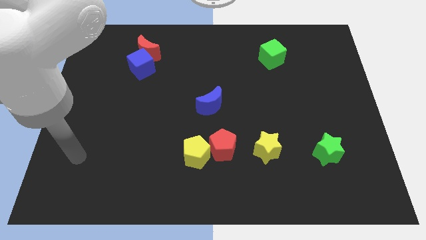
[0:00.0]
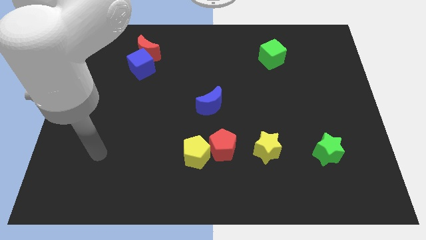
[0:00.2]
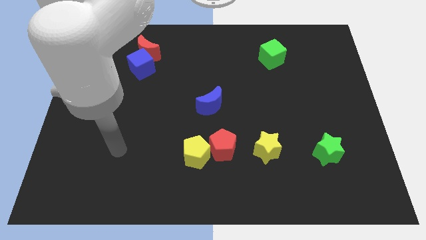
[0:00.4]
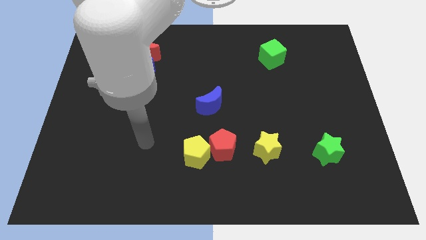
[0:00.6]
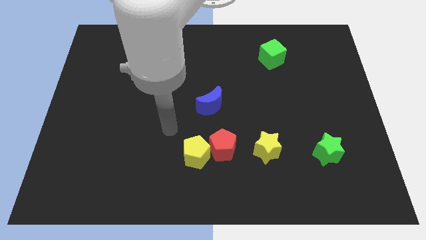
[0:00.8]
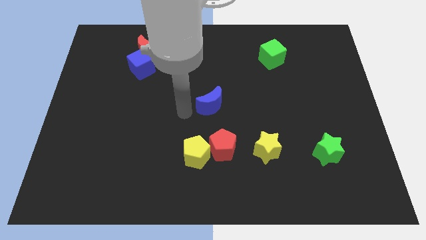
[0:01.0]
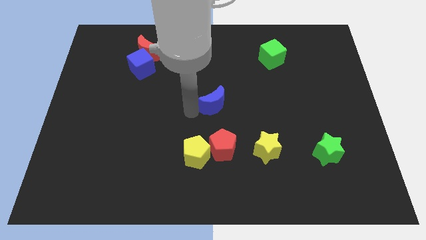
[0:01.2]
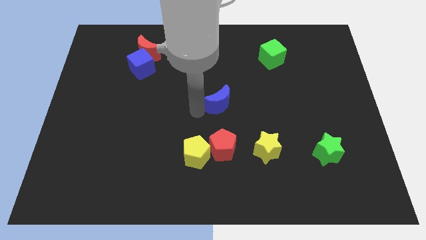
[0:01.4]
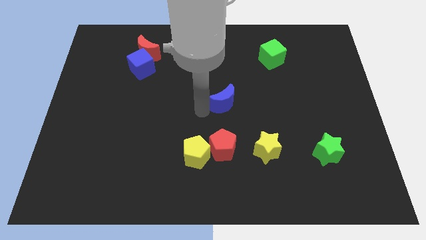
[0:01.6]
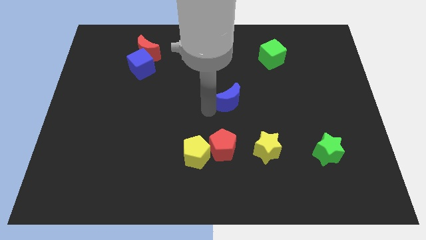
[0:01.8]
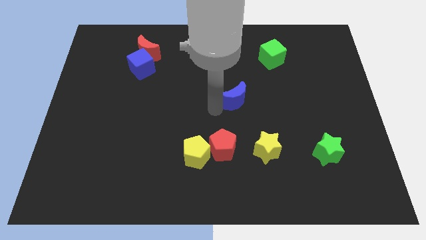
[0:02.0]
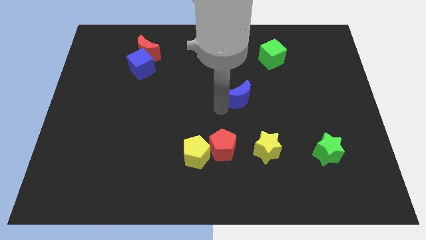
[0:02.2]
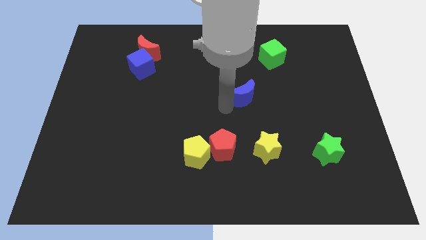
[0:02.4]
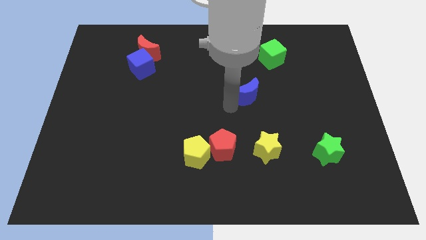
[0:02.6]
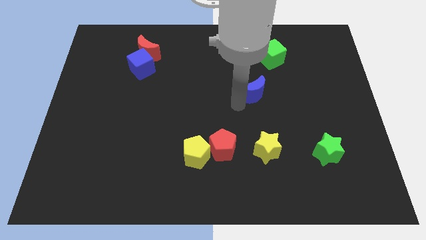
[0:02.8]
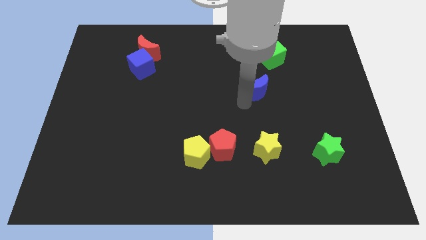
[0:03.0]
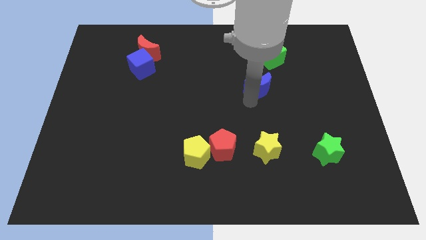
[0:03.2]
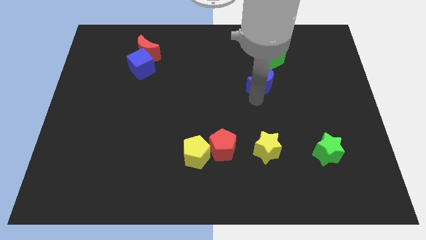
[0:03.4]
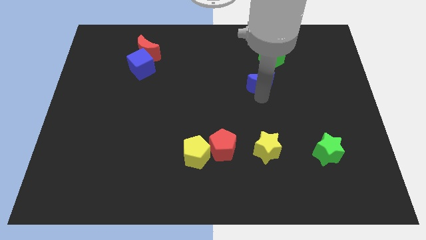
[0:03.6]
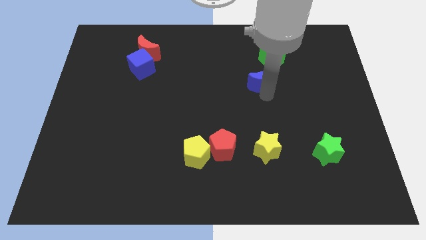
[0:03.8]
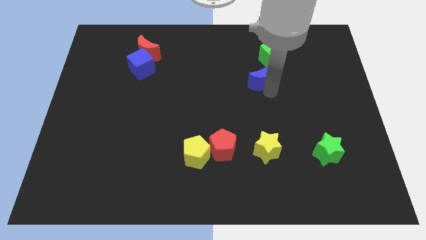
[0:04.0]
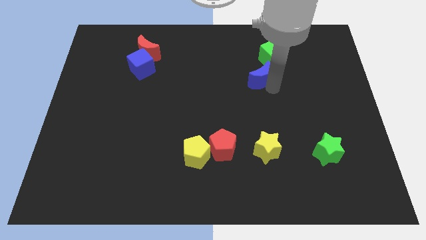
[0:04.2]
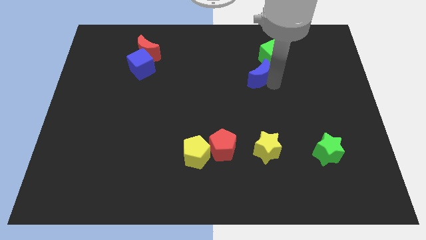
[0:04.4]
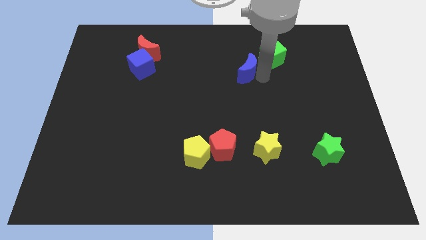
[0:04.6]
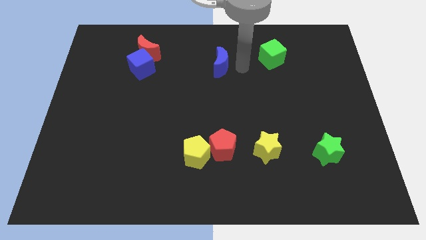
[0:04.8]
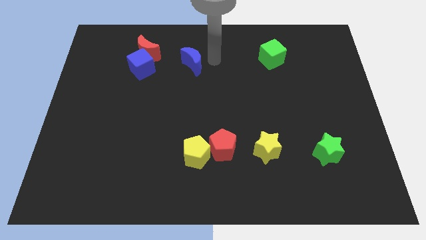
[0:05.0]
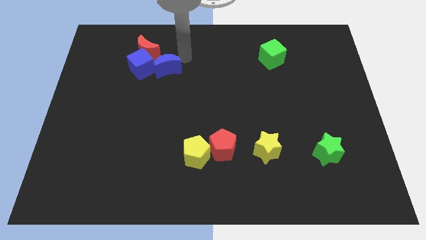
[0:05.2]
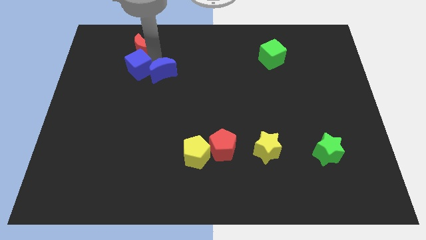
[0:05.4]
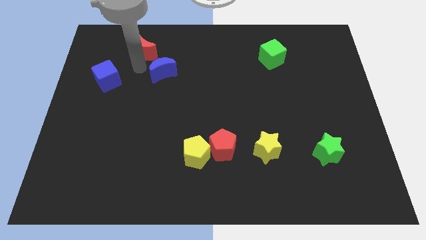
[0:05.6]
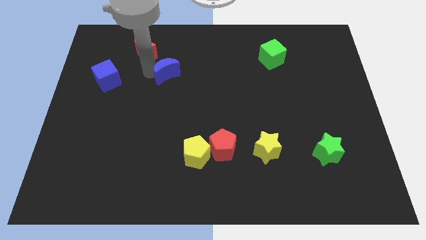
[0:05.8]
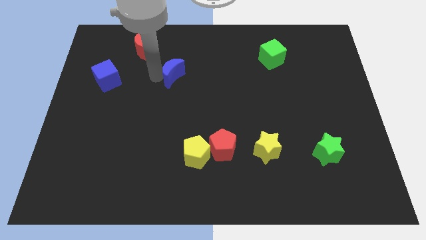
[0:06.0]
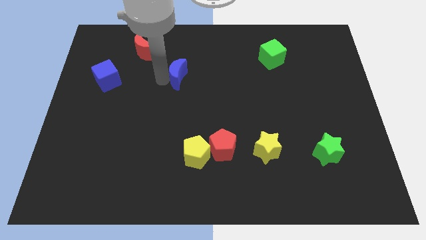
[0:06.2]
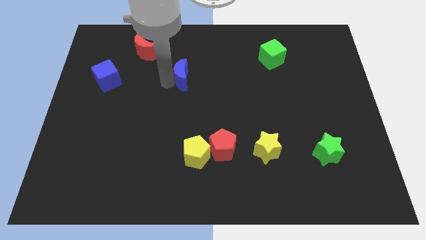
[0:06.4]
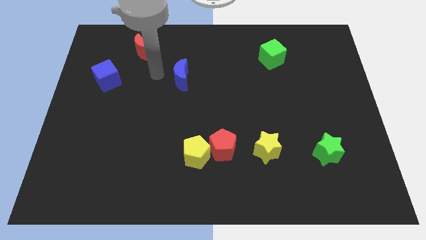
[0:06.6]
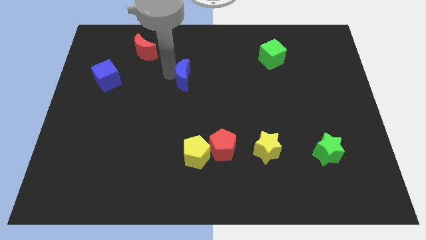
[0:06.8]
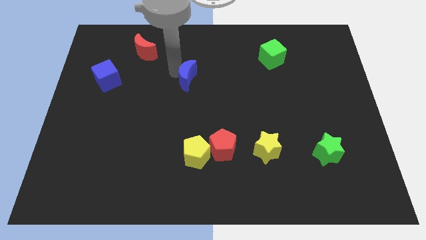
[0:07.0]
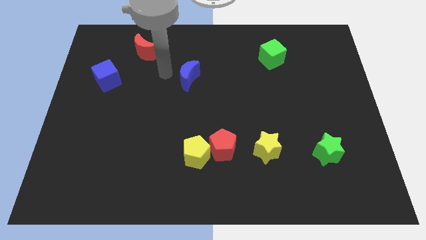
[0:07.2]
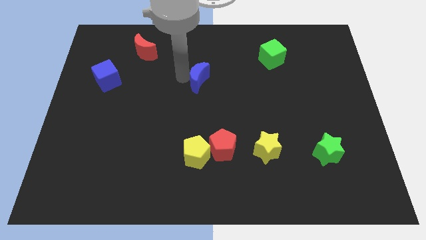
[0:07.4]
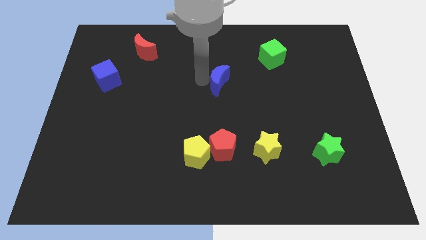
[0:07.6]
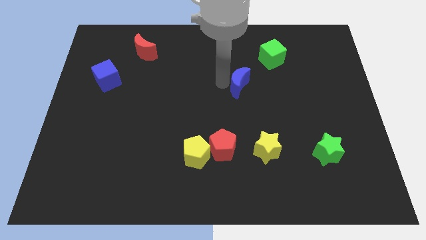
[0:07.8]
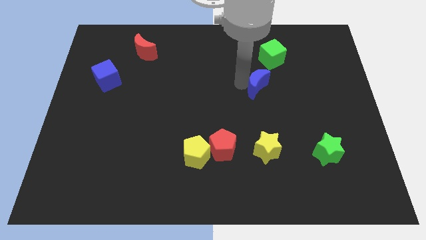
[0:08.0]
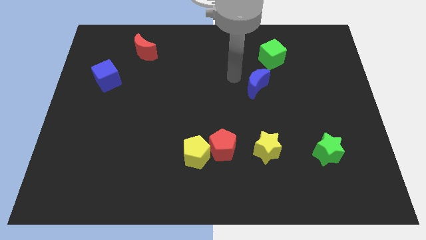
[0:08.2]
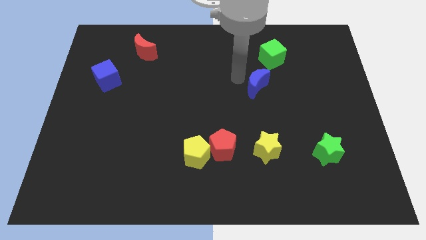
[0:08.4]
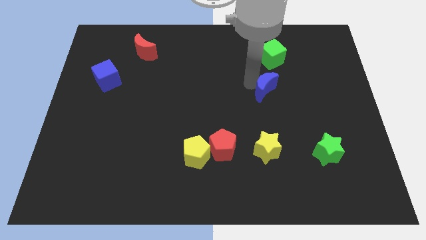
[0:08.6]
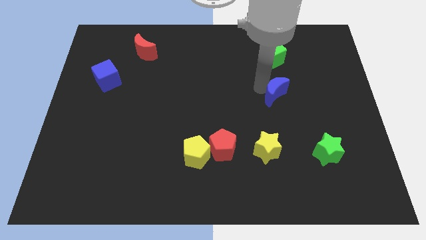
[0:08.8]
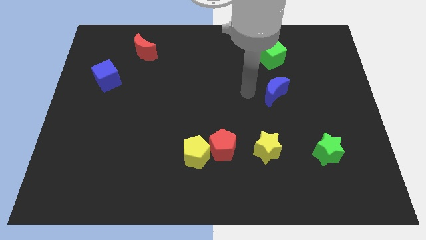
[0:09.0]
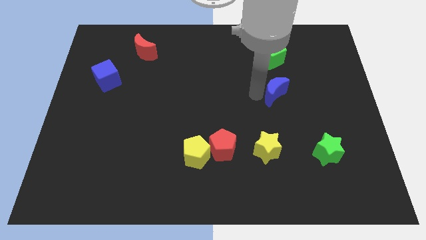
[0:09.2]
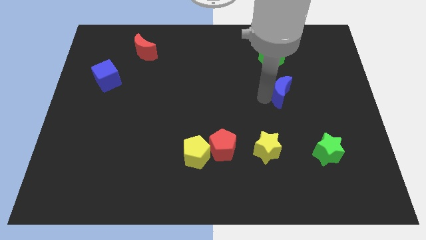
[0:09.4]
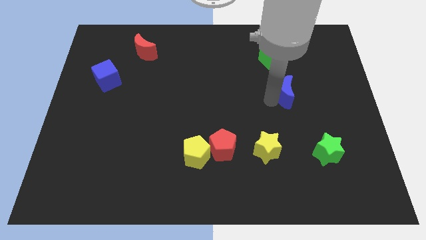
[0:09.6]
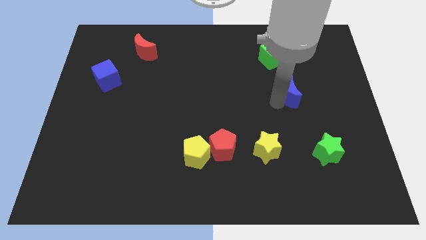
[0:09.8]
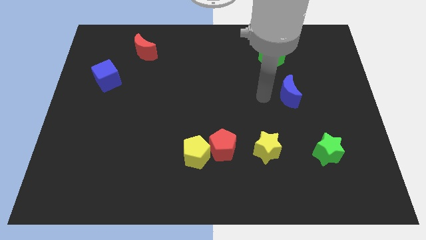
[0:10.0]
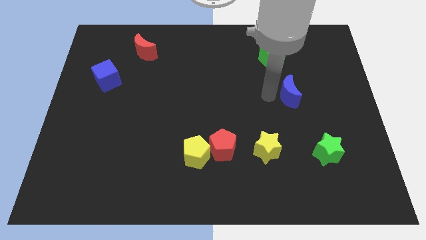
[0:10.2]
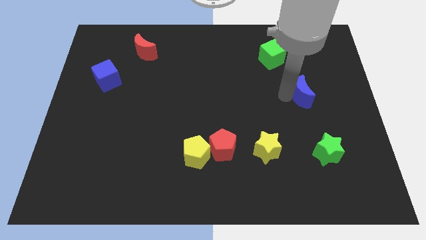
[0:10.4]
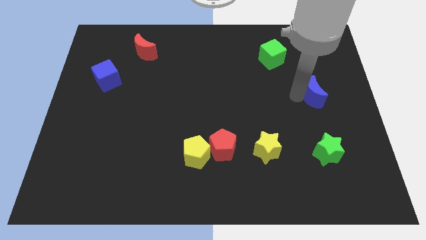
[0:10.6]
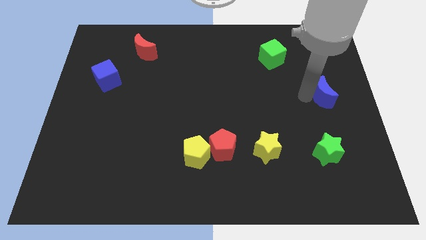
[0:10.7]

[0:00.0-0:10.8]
slide the blue moon to the right side

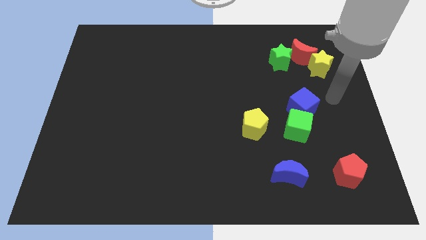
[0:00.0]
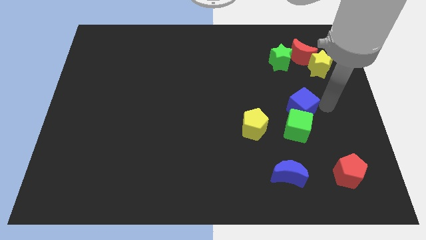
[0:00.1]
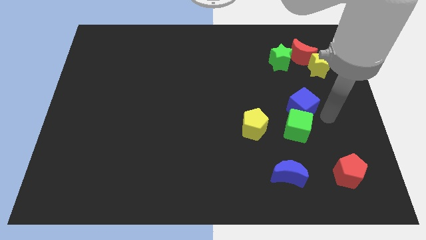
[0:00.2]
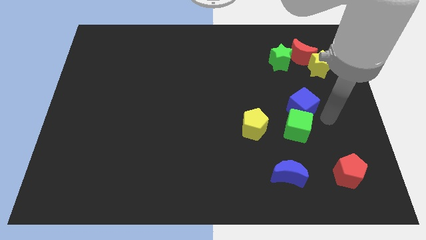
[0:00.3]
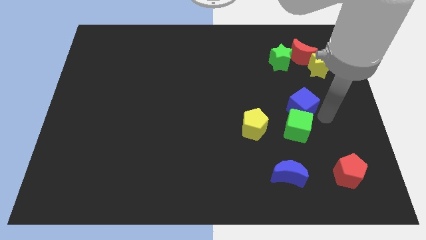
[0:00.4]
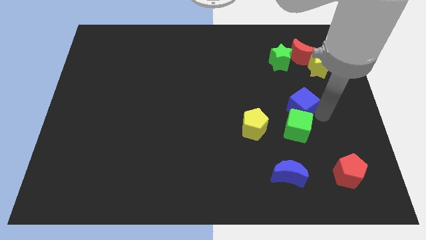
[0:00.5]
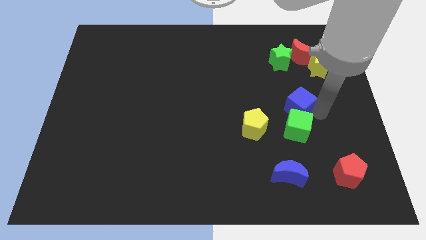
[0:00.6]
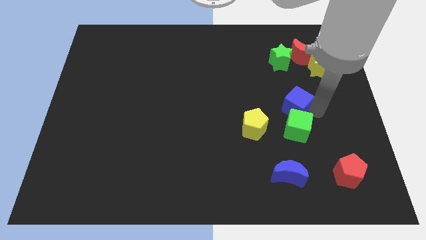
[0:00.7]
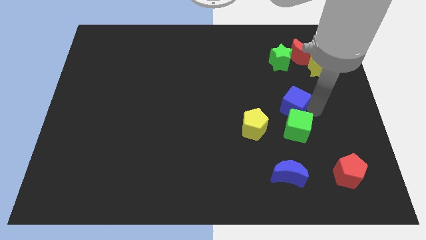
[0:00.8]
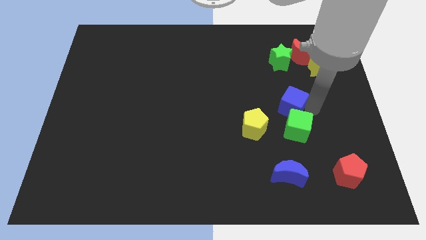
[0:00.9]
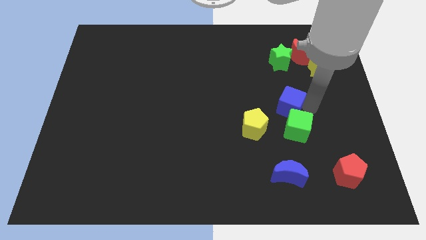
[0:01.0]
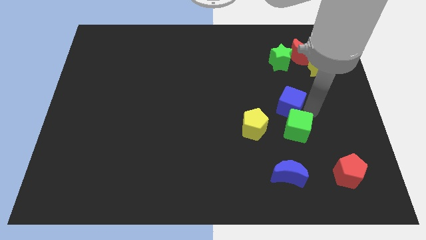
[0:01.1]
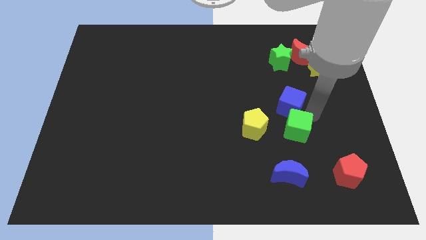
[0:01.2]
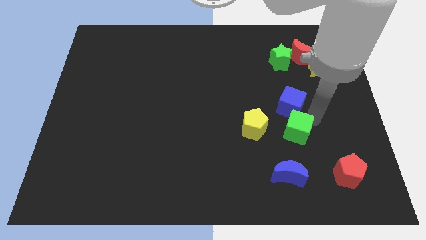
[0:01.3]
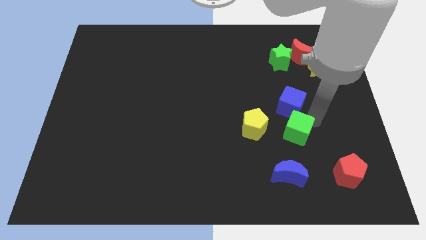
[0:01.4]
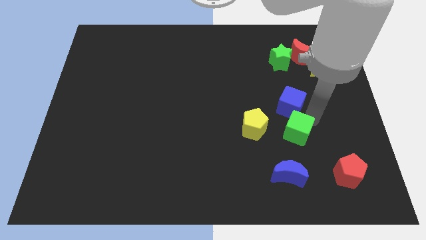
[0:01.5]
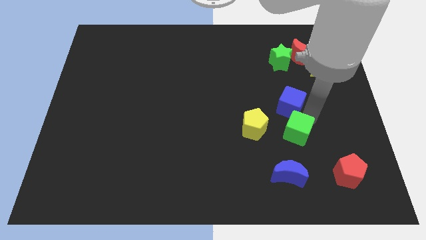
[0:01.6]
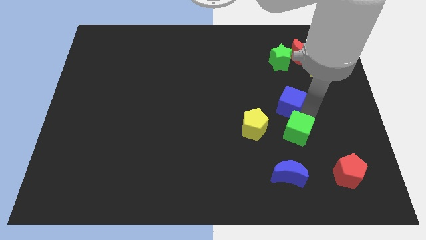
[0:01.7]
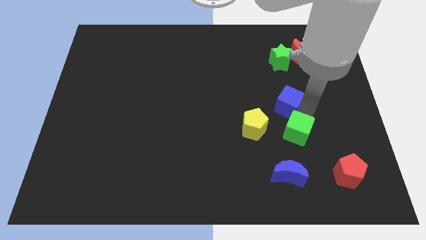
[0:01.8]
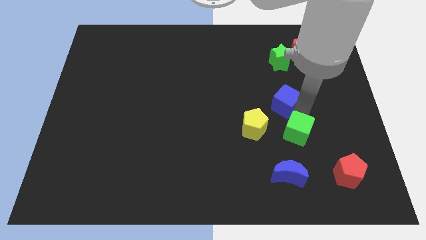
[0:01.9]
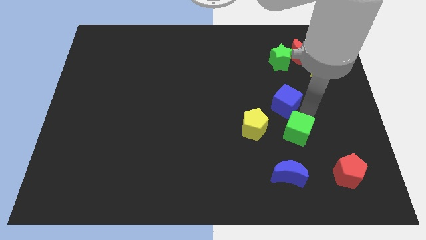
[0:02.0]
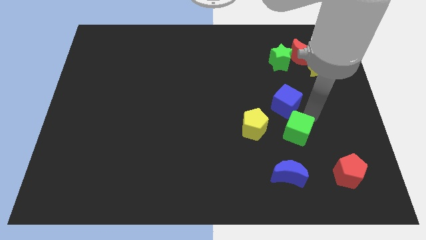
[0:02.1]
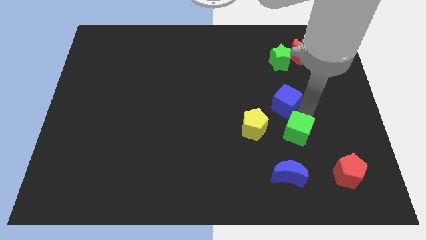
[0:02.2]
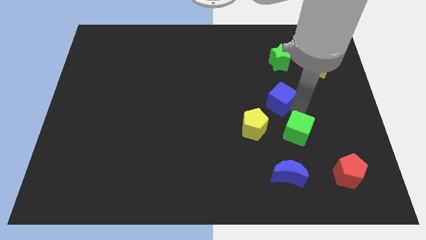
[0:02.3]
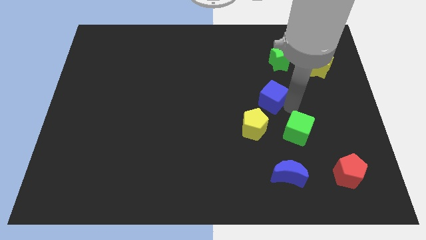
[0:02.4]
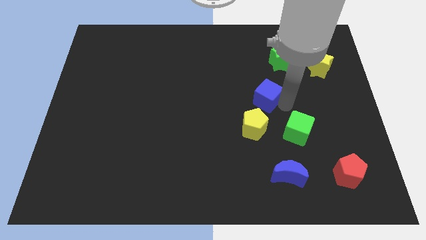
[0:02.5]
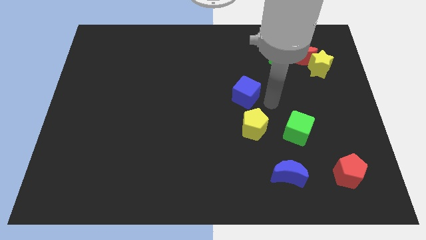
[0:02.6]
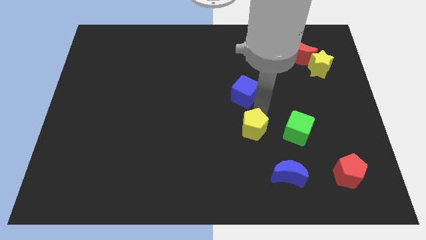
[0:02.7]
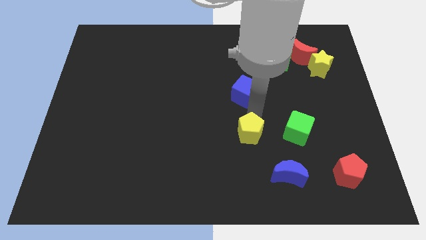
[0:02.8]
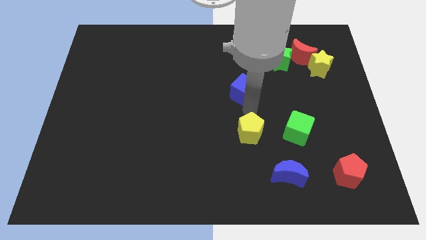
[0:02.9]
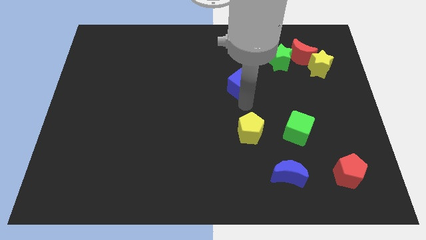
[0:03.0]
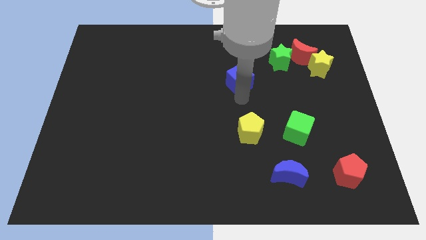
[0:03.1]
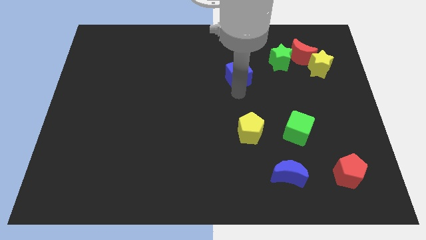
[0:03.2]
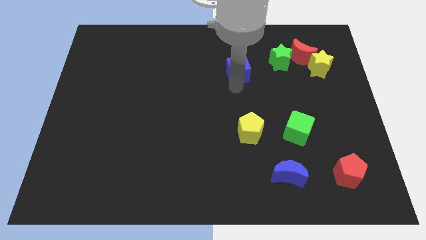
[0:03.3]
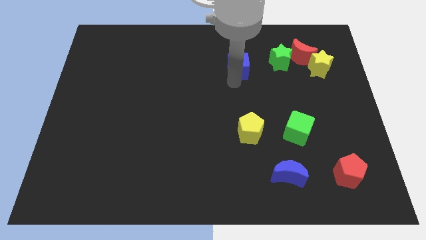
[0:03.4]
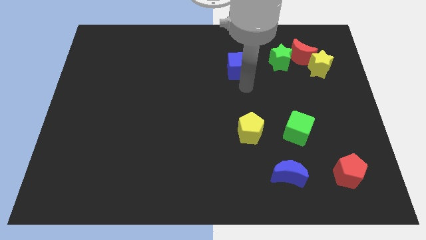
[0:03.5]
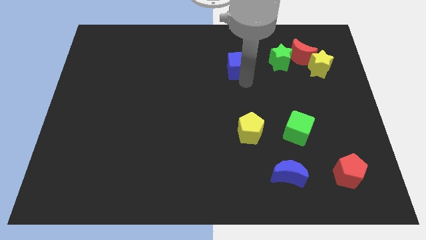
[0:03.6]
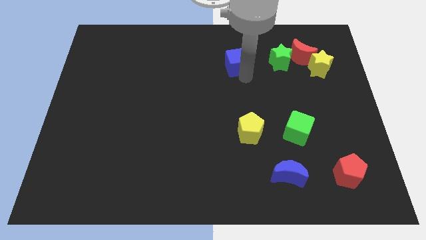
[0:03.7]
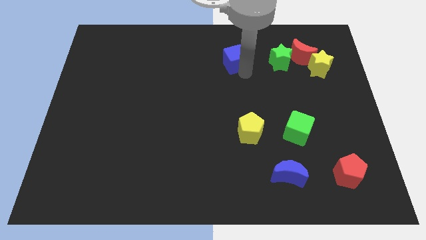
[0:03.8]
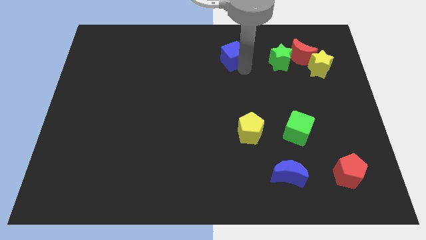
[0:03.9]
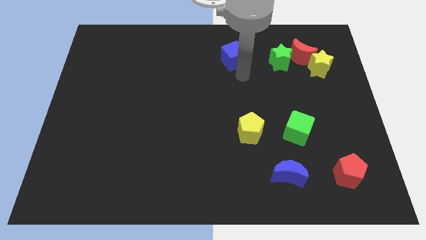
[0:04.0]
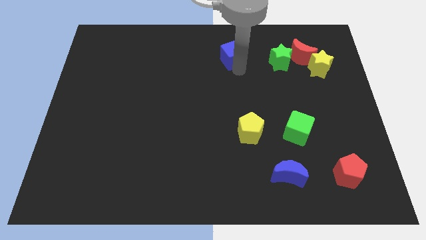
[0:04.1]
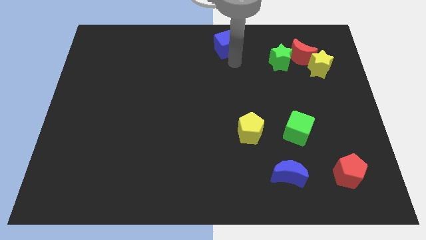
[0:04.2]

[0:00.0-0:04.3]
slide the blue cube to the top
